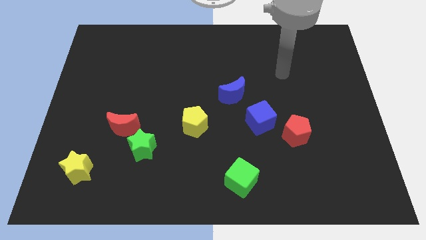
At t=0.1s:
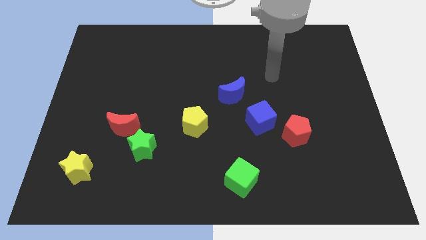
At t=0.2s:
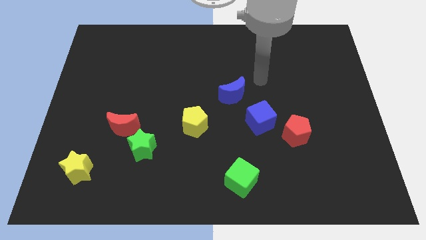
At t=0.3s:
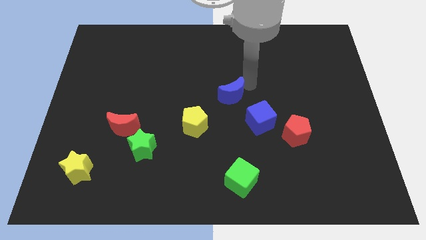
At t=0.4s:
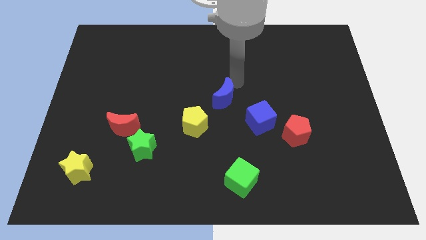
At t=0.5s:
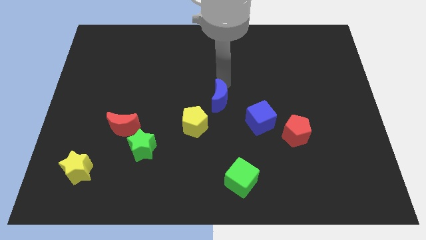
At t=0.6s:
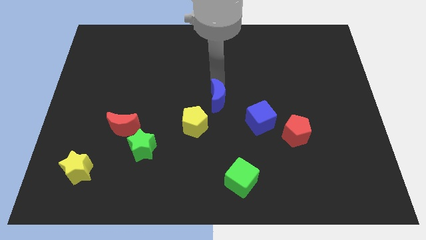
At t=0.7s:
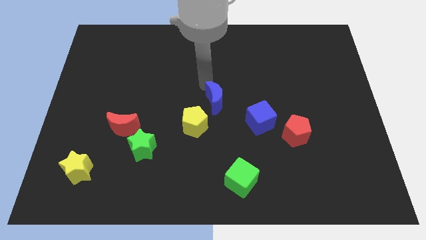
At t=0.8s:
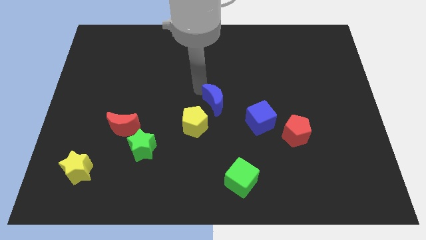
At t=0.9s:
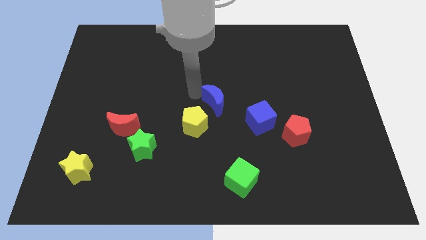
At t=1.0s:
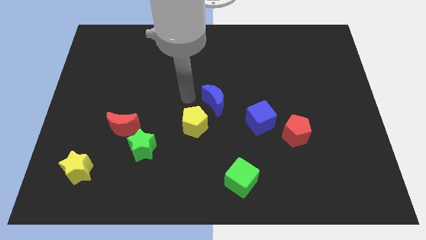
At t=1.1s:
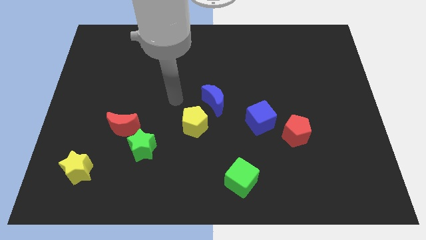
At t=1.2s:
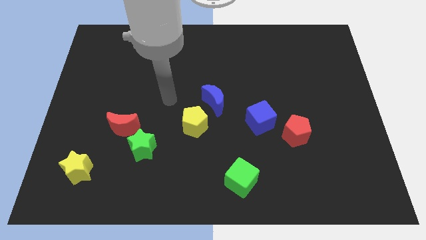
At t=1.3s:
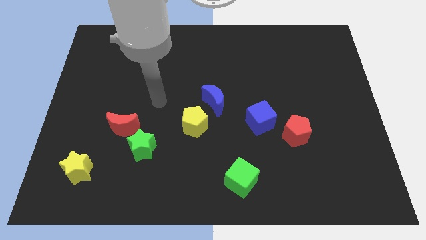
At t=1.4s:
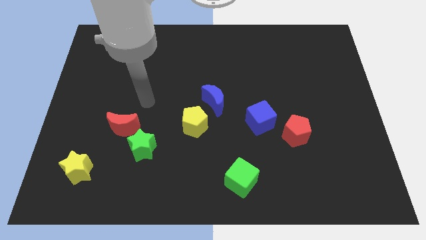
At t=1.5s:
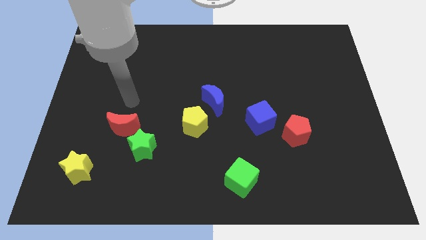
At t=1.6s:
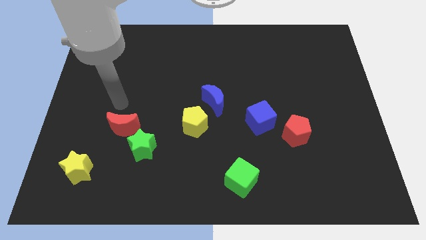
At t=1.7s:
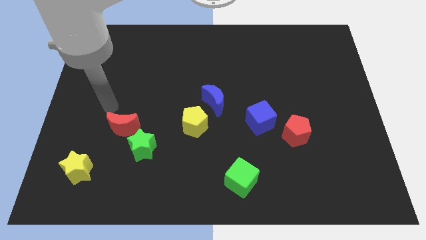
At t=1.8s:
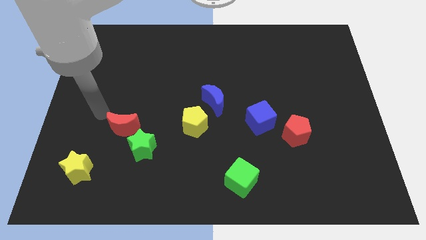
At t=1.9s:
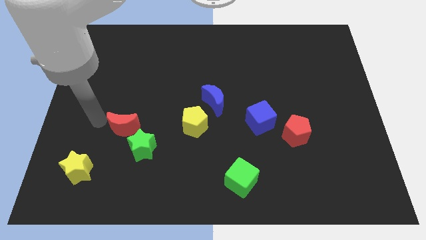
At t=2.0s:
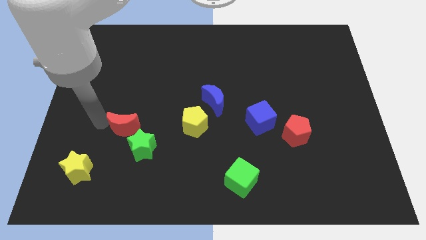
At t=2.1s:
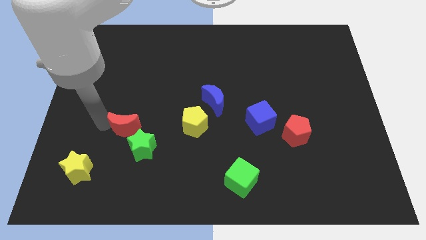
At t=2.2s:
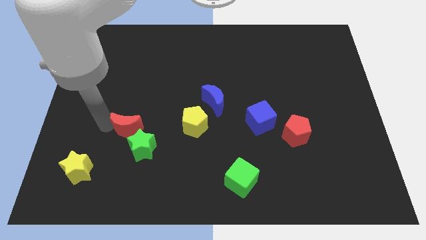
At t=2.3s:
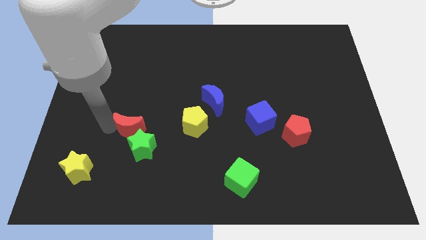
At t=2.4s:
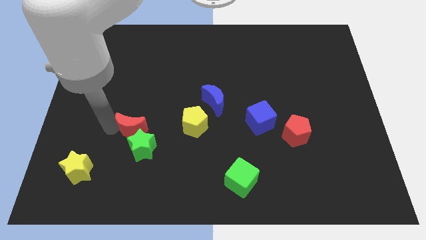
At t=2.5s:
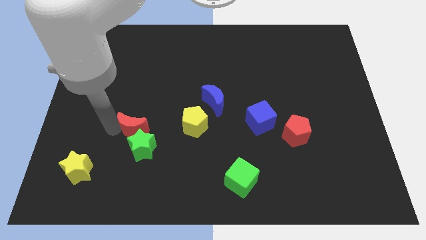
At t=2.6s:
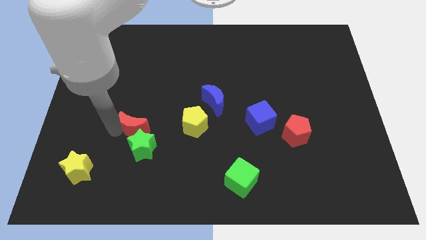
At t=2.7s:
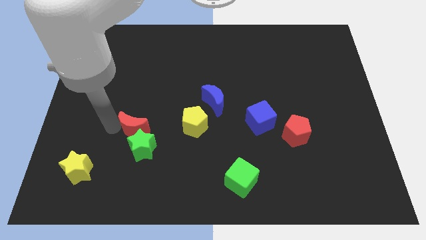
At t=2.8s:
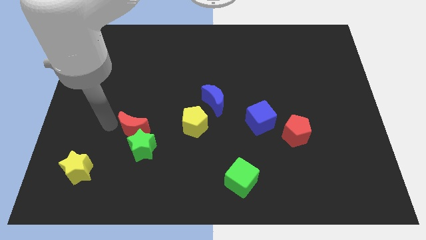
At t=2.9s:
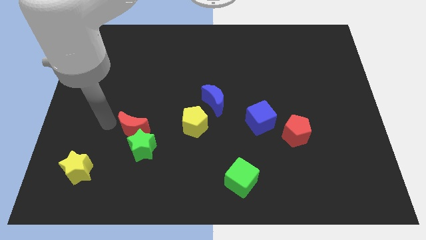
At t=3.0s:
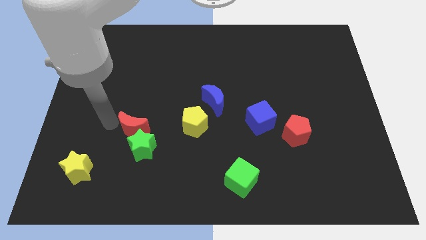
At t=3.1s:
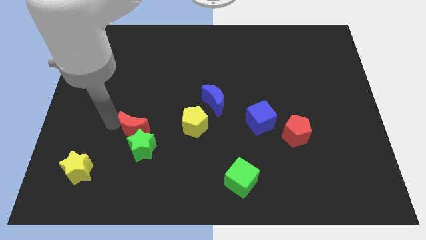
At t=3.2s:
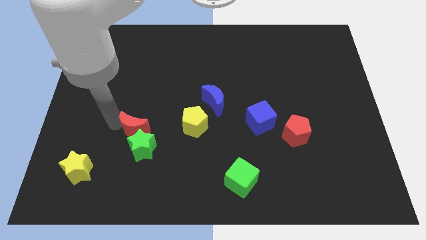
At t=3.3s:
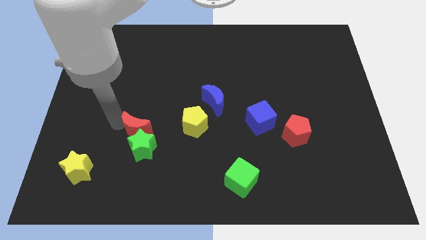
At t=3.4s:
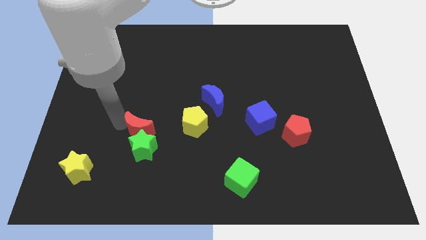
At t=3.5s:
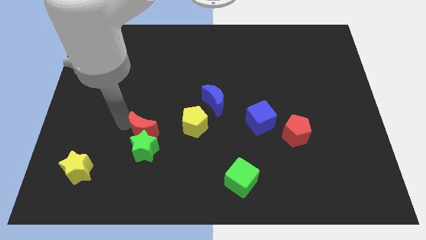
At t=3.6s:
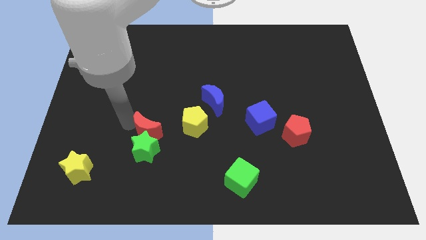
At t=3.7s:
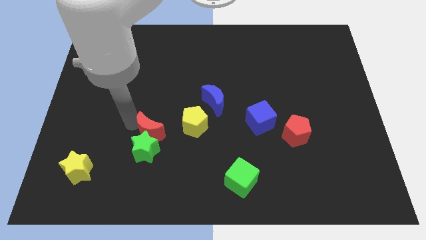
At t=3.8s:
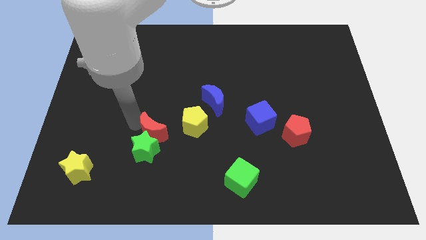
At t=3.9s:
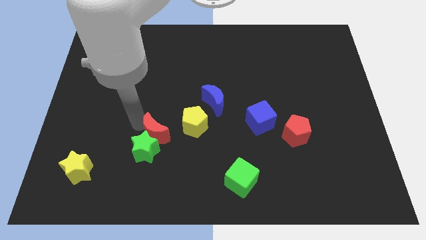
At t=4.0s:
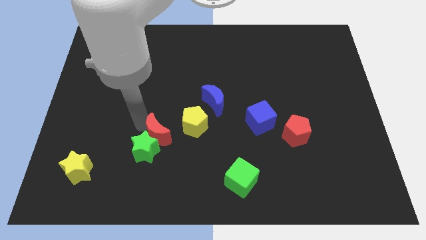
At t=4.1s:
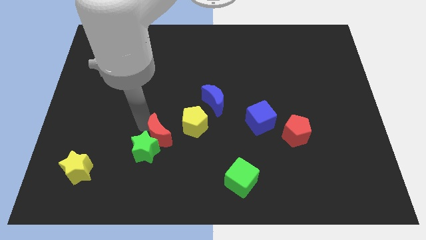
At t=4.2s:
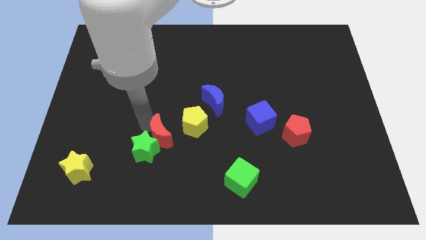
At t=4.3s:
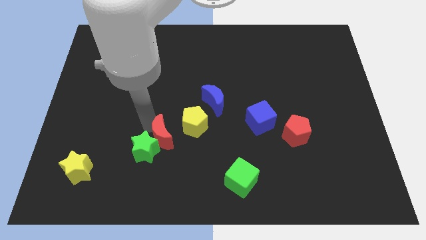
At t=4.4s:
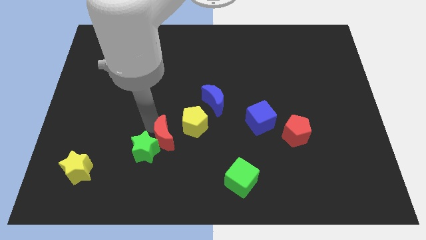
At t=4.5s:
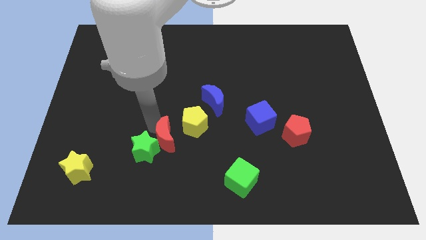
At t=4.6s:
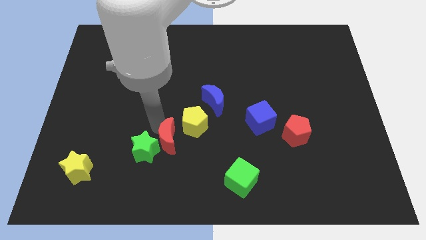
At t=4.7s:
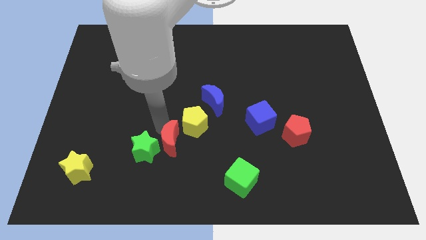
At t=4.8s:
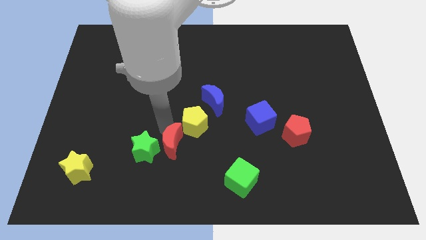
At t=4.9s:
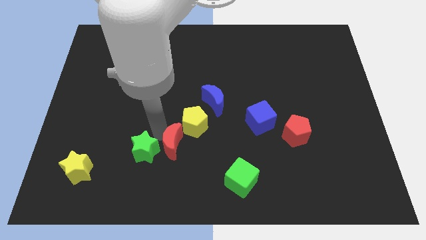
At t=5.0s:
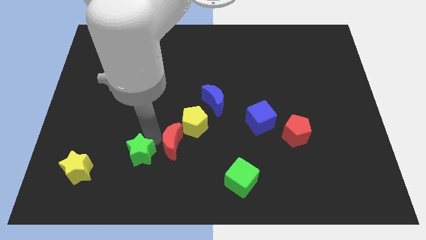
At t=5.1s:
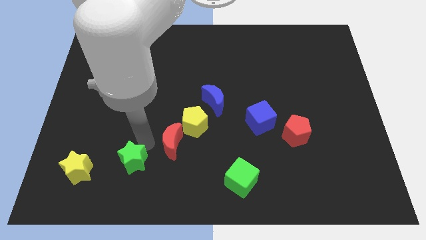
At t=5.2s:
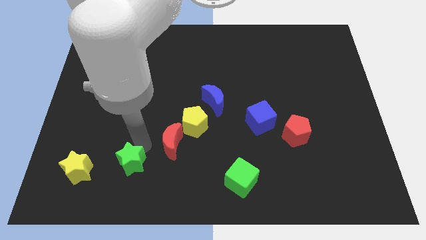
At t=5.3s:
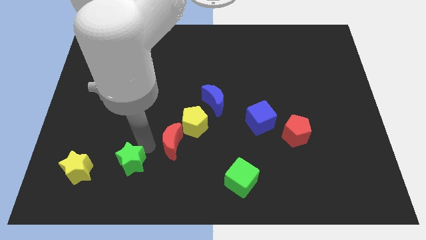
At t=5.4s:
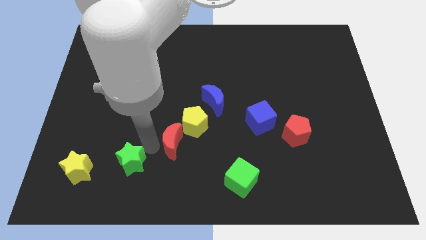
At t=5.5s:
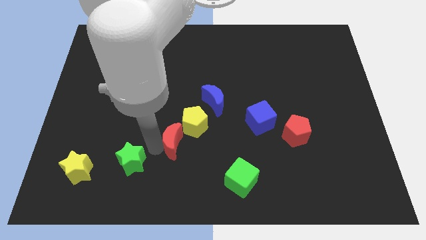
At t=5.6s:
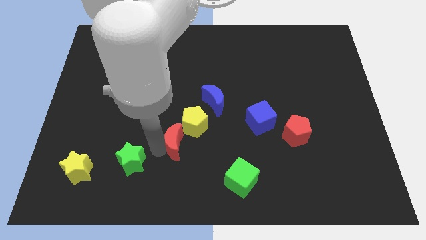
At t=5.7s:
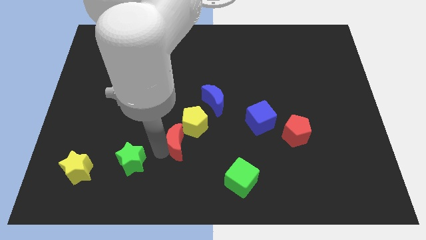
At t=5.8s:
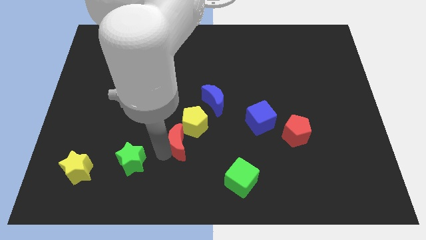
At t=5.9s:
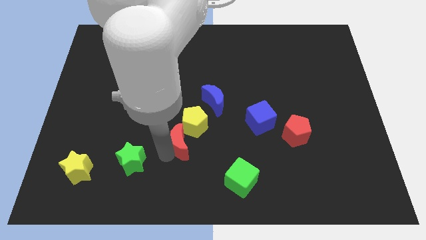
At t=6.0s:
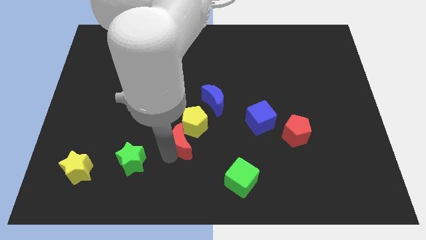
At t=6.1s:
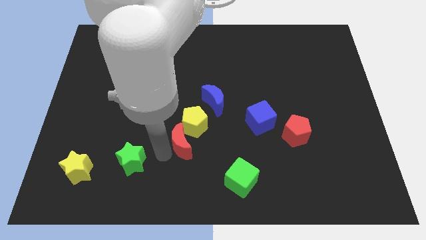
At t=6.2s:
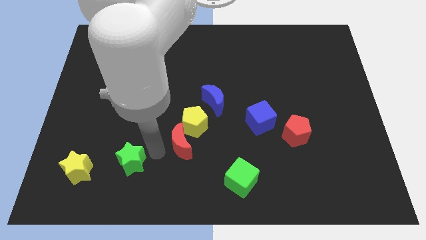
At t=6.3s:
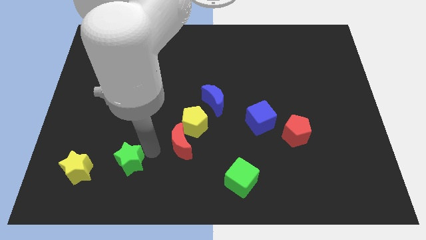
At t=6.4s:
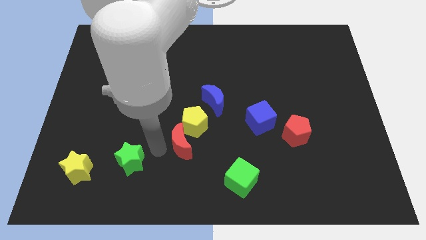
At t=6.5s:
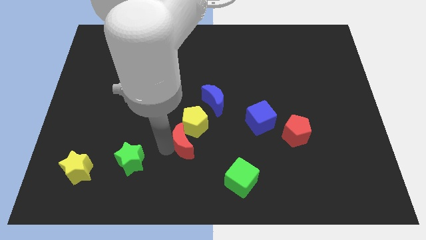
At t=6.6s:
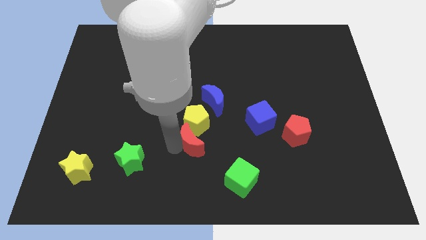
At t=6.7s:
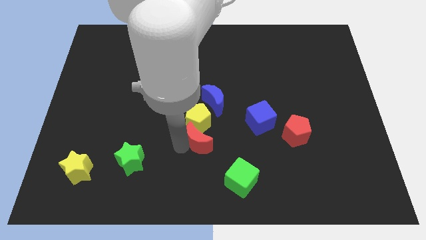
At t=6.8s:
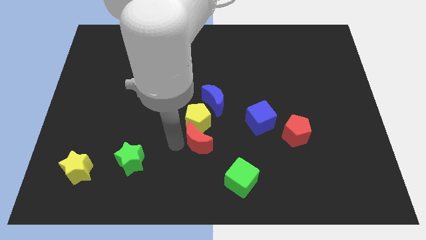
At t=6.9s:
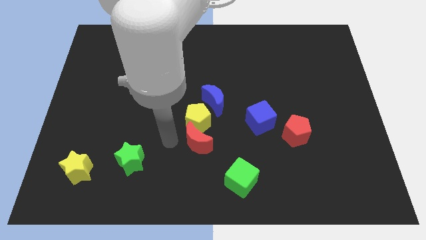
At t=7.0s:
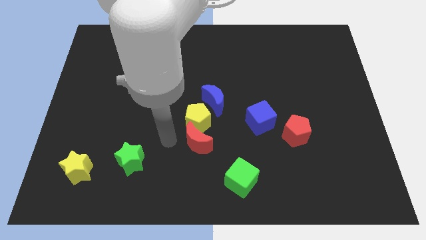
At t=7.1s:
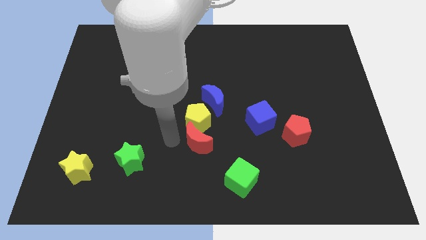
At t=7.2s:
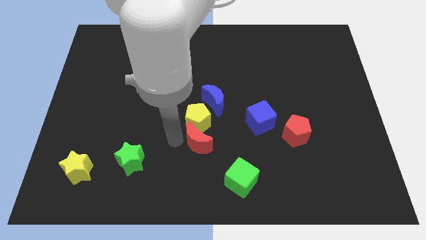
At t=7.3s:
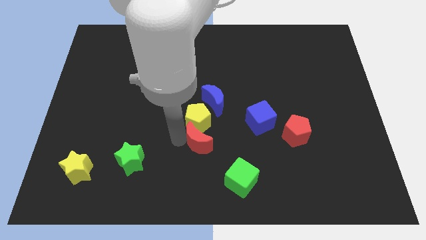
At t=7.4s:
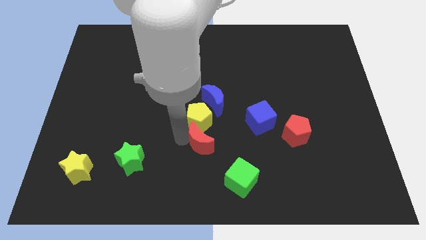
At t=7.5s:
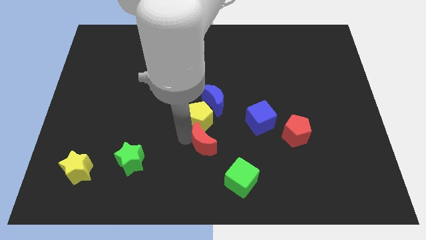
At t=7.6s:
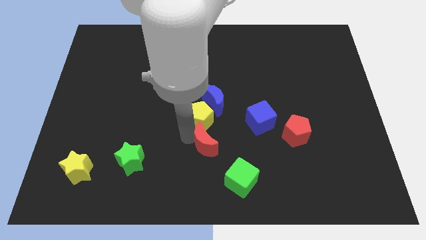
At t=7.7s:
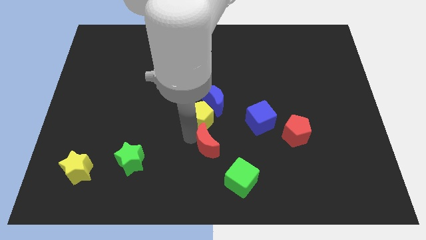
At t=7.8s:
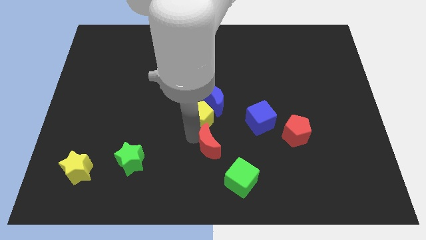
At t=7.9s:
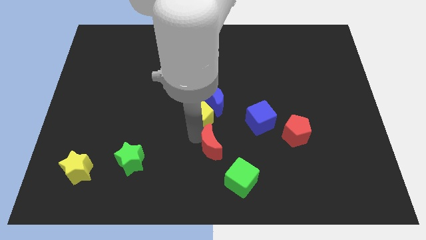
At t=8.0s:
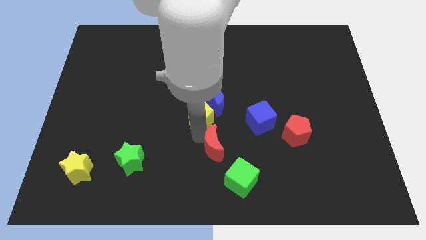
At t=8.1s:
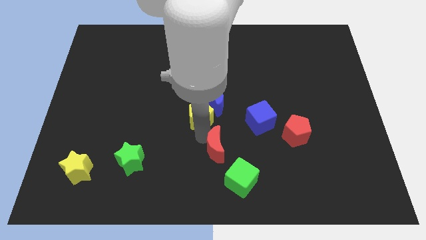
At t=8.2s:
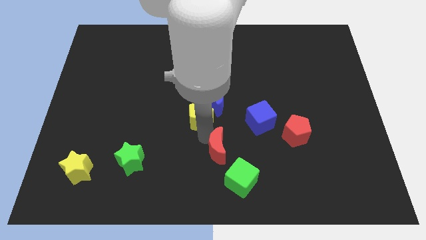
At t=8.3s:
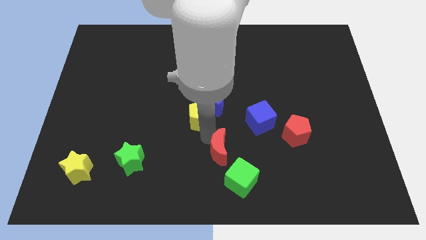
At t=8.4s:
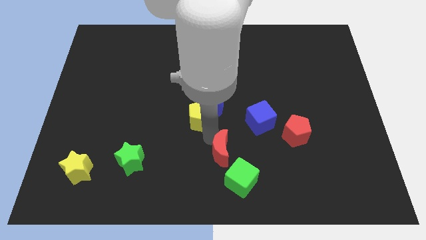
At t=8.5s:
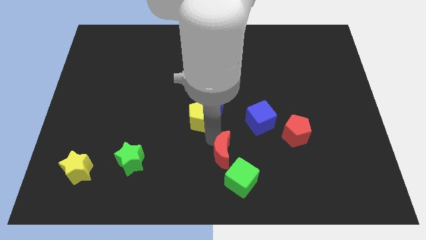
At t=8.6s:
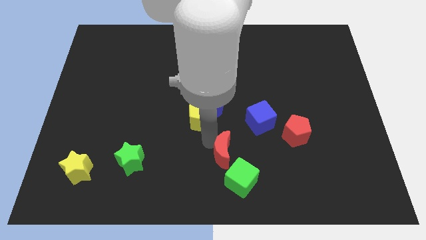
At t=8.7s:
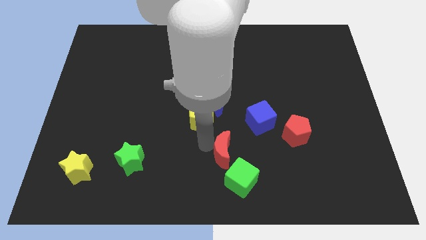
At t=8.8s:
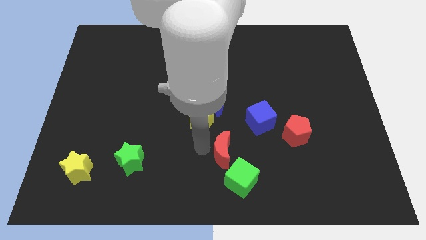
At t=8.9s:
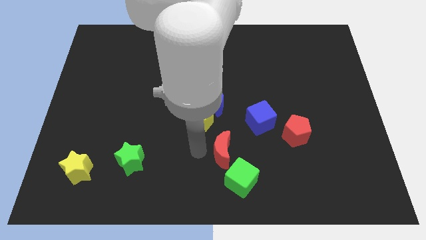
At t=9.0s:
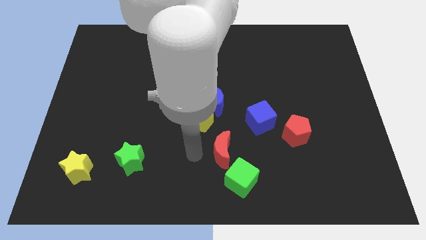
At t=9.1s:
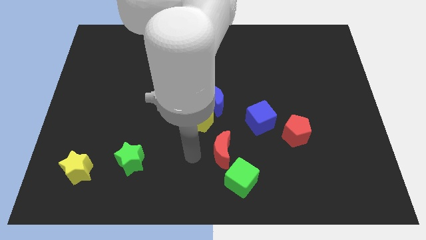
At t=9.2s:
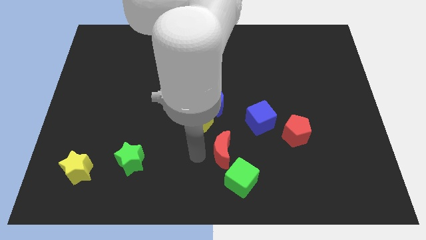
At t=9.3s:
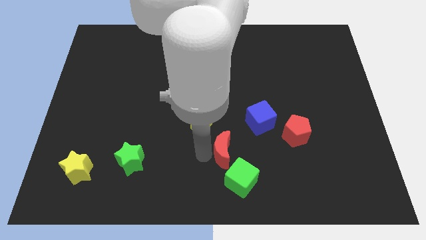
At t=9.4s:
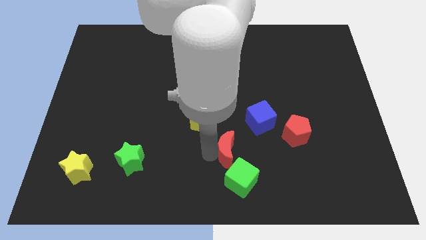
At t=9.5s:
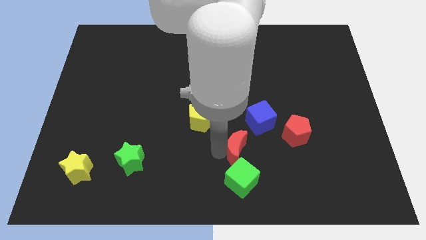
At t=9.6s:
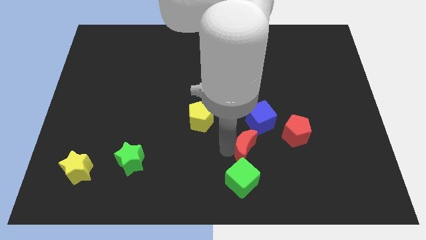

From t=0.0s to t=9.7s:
move the red moon diagonally up and to the right of the green cube
